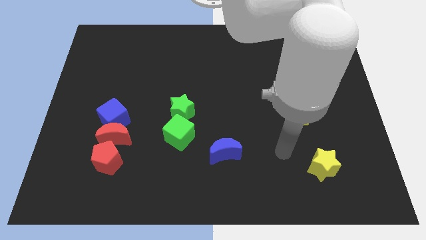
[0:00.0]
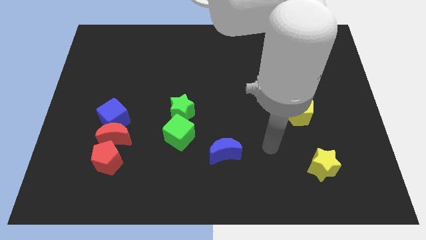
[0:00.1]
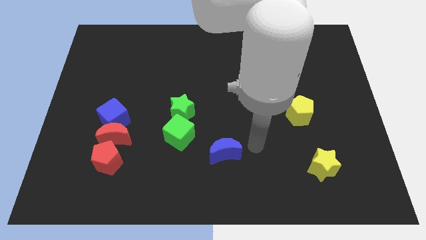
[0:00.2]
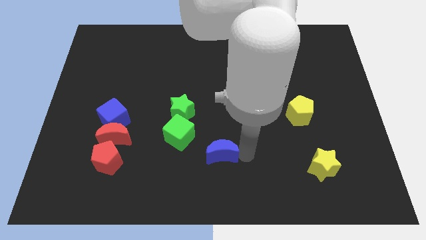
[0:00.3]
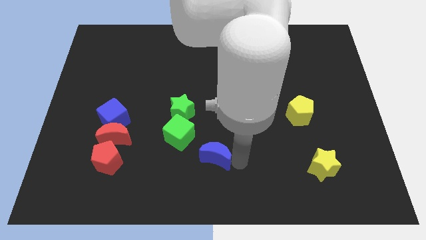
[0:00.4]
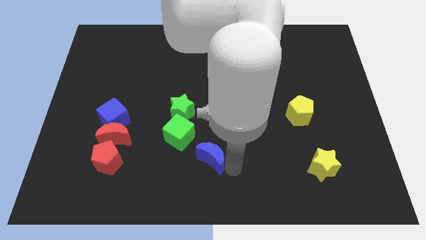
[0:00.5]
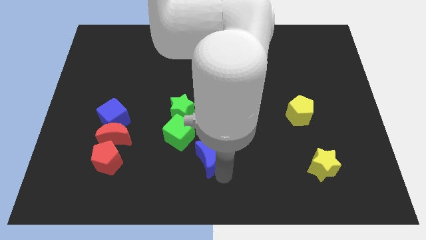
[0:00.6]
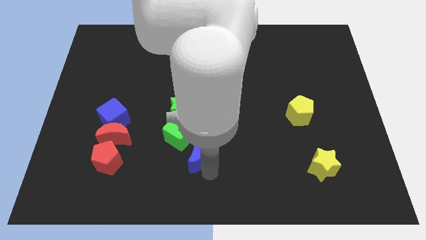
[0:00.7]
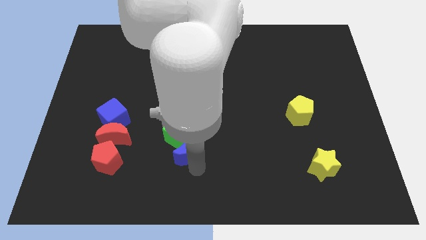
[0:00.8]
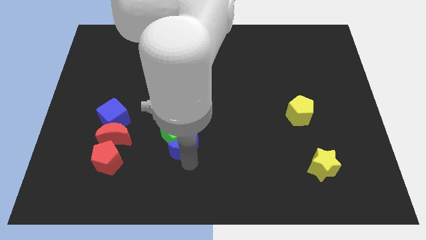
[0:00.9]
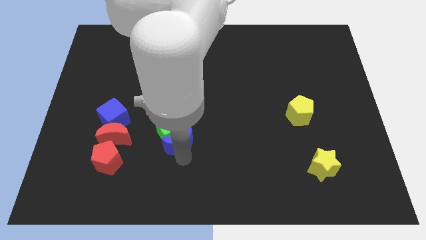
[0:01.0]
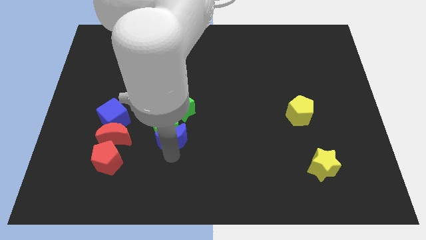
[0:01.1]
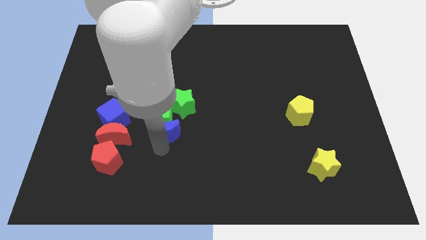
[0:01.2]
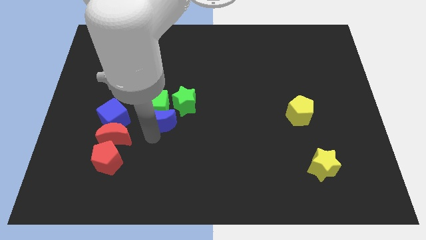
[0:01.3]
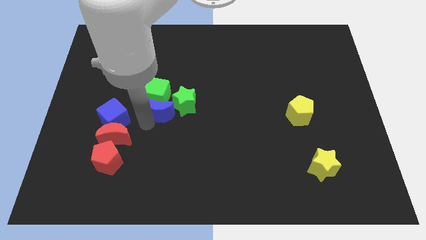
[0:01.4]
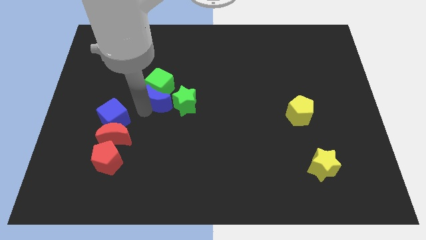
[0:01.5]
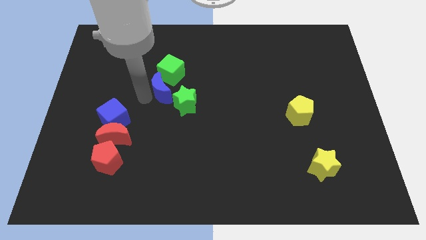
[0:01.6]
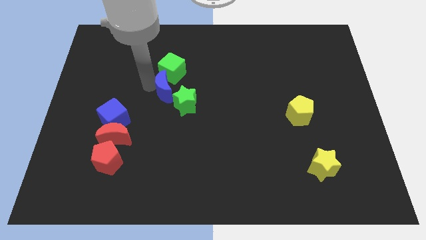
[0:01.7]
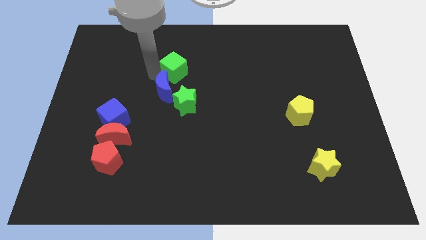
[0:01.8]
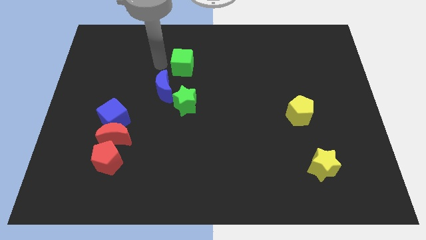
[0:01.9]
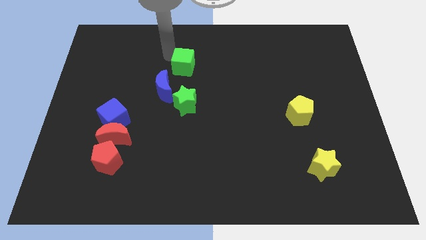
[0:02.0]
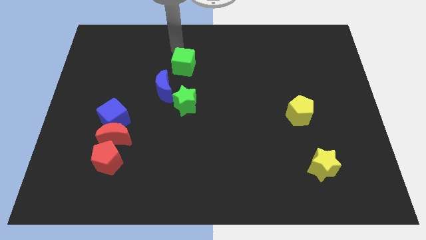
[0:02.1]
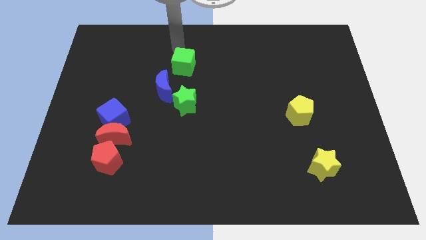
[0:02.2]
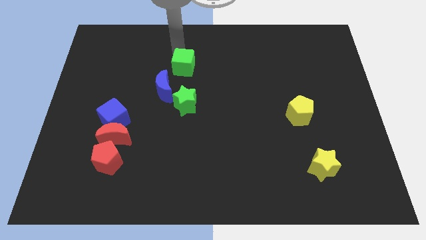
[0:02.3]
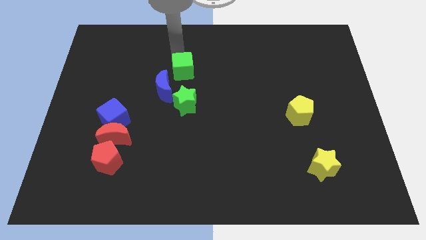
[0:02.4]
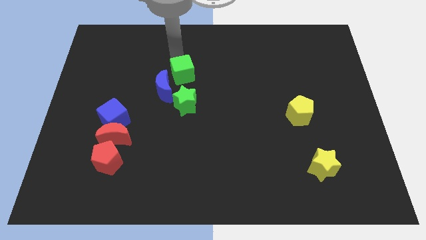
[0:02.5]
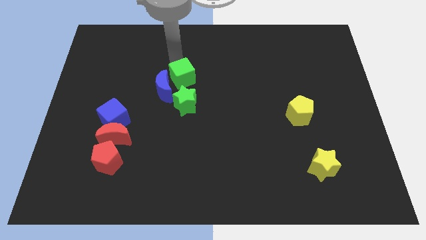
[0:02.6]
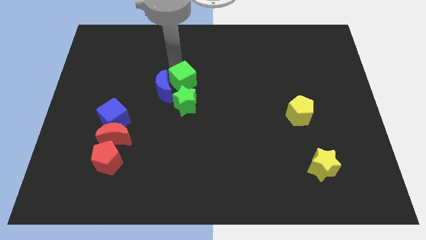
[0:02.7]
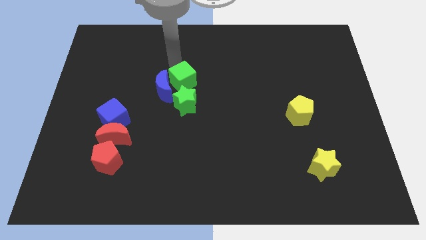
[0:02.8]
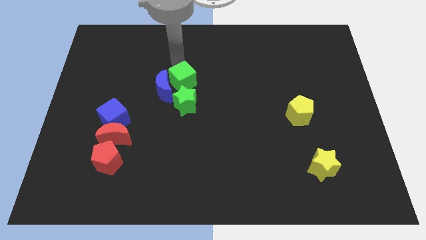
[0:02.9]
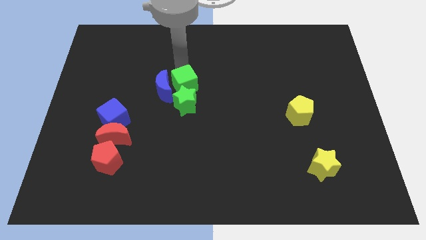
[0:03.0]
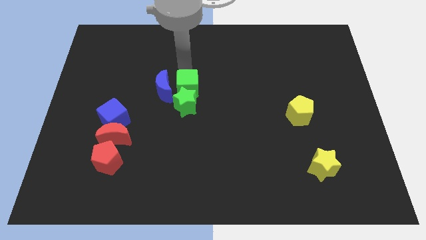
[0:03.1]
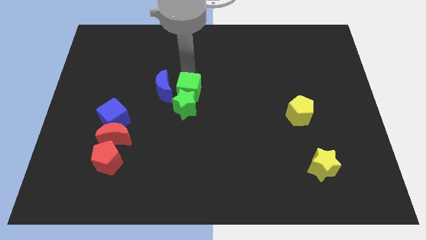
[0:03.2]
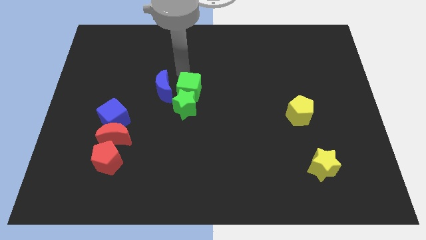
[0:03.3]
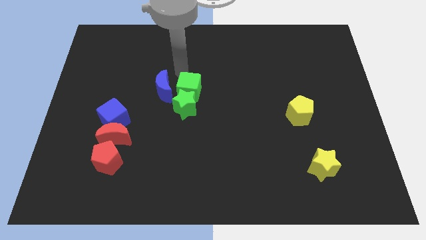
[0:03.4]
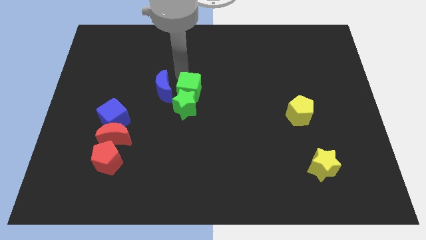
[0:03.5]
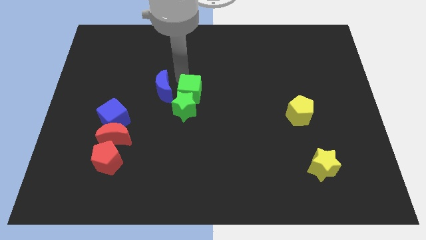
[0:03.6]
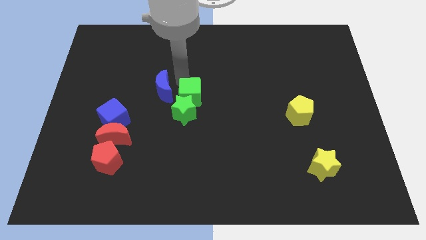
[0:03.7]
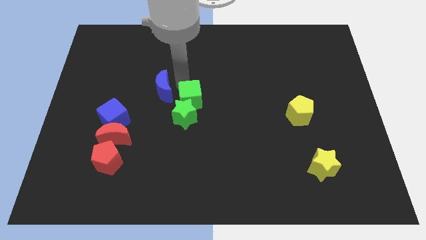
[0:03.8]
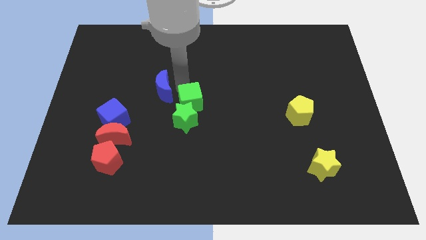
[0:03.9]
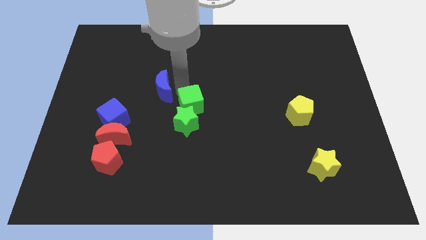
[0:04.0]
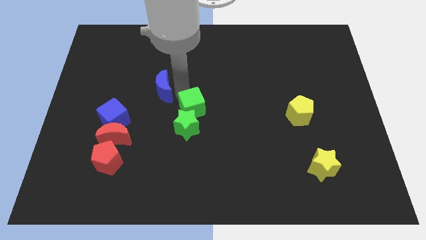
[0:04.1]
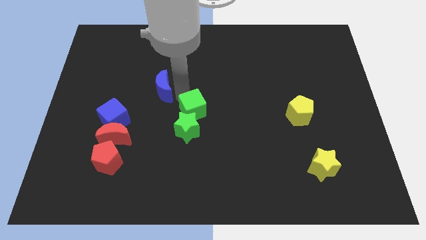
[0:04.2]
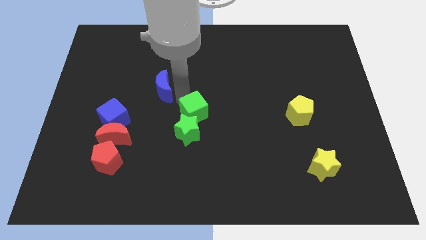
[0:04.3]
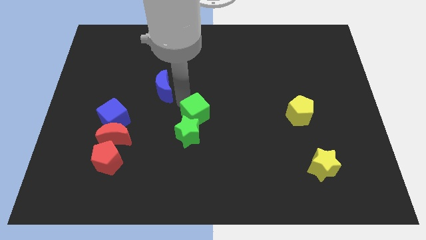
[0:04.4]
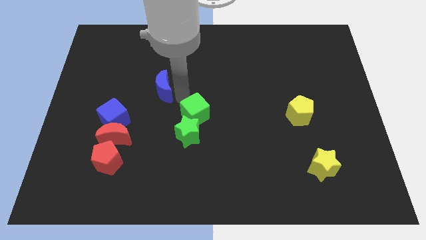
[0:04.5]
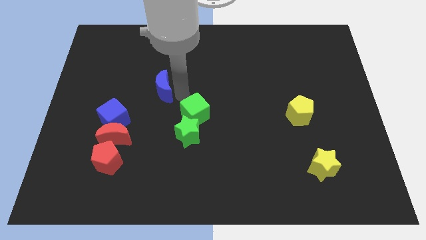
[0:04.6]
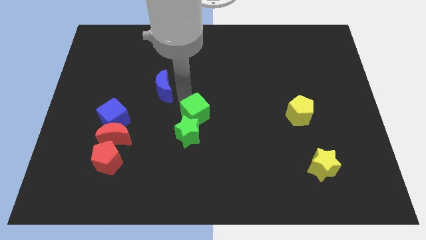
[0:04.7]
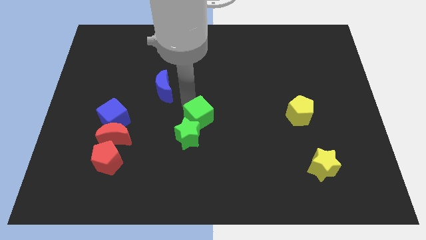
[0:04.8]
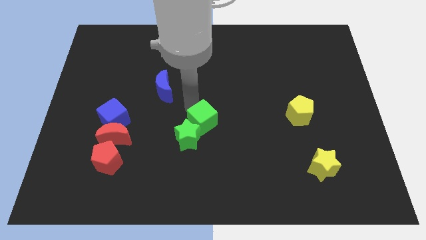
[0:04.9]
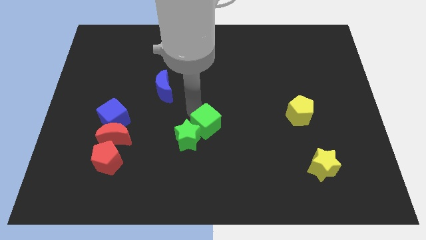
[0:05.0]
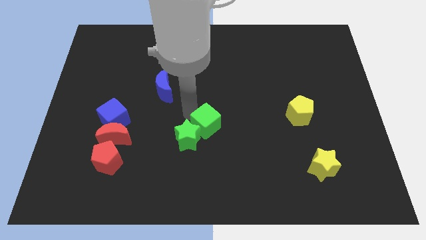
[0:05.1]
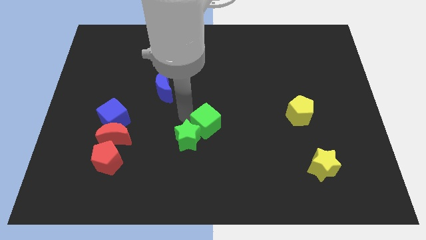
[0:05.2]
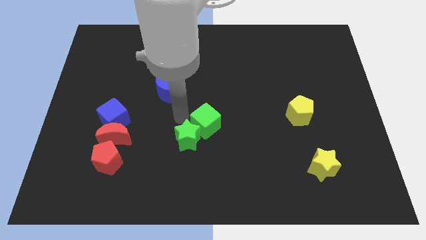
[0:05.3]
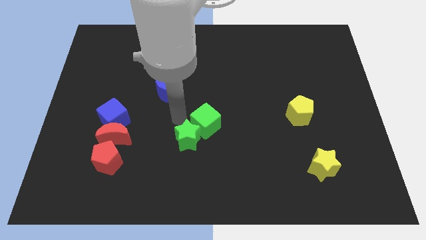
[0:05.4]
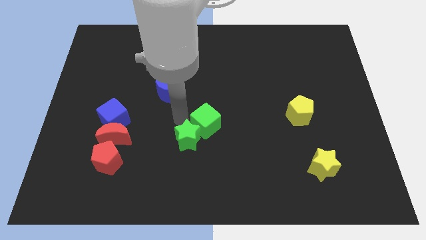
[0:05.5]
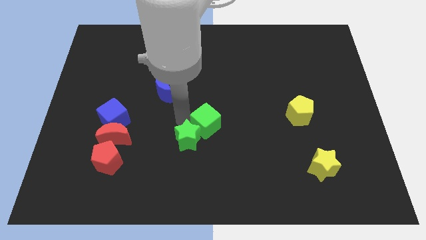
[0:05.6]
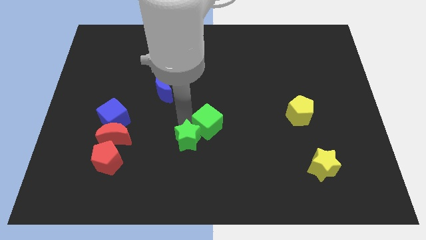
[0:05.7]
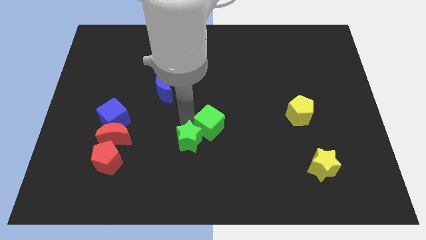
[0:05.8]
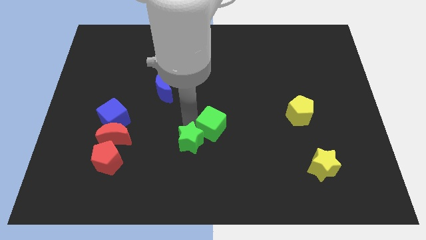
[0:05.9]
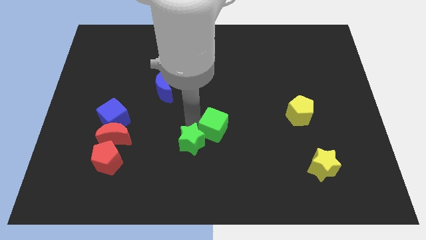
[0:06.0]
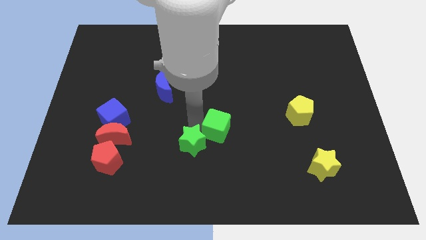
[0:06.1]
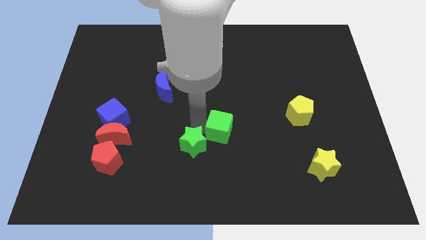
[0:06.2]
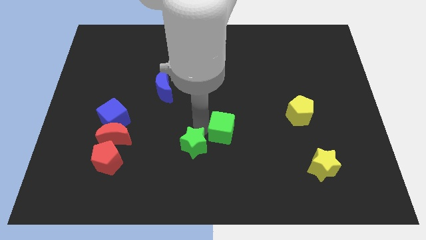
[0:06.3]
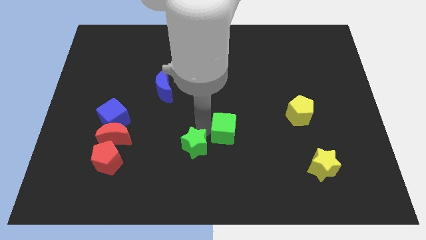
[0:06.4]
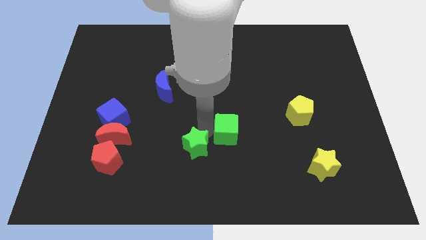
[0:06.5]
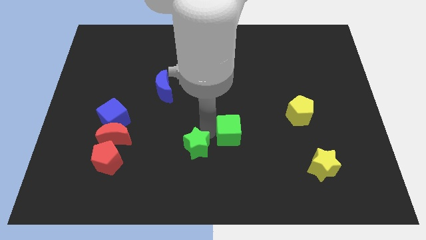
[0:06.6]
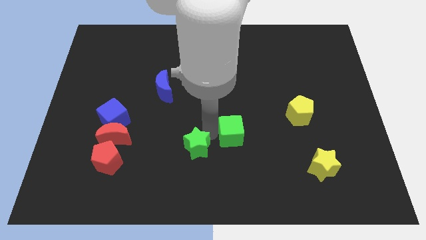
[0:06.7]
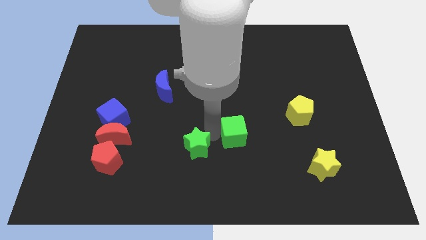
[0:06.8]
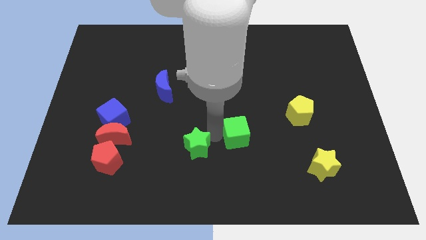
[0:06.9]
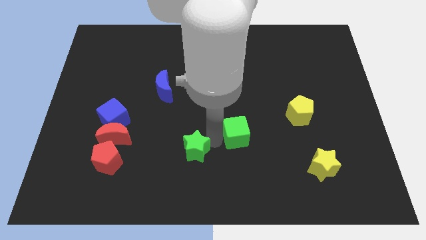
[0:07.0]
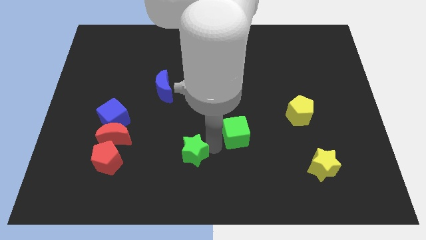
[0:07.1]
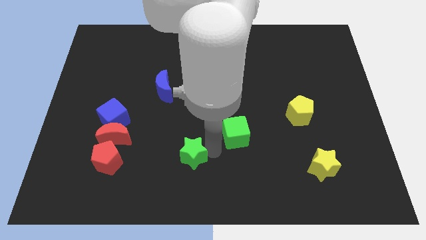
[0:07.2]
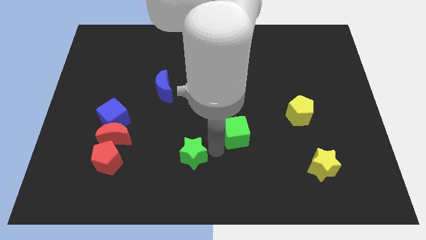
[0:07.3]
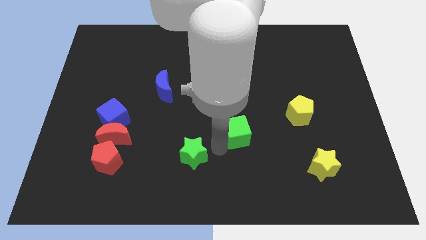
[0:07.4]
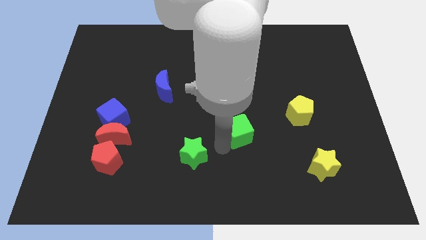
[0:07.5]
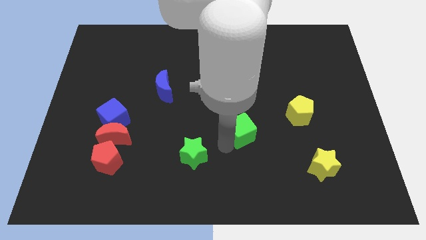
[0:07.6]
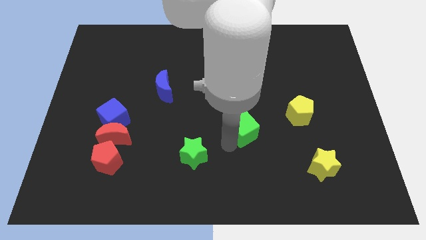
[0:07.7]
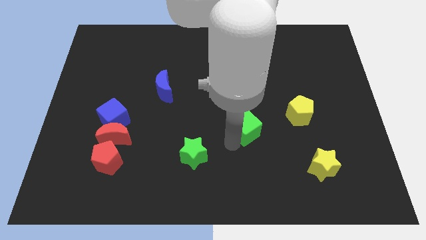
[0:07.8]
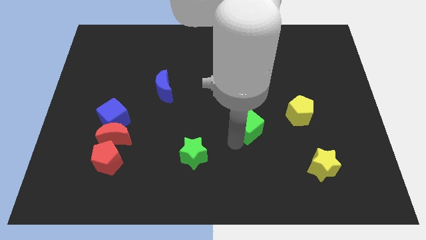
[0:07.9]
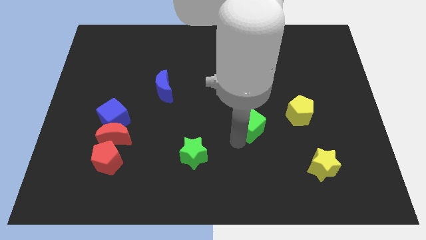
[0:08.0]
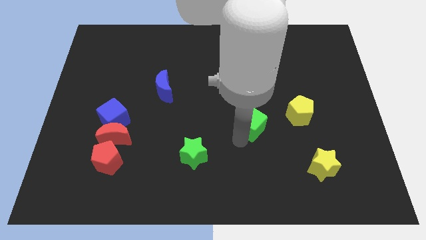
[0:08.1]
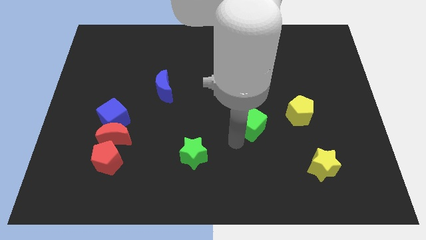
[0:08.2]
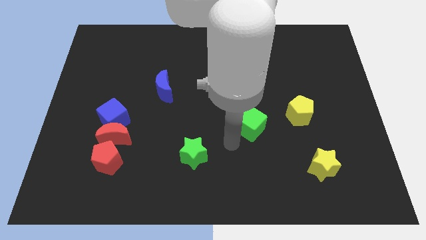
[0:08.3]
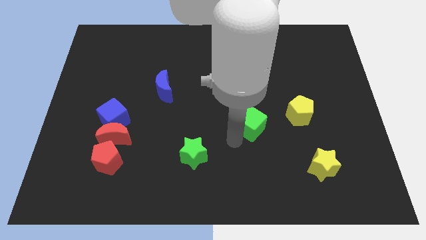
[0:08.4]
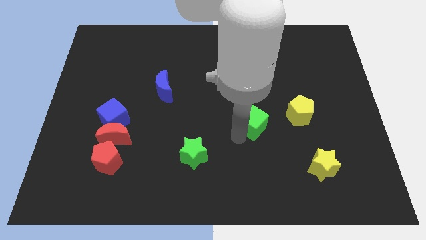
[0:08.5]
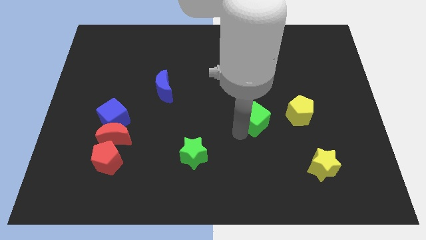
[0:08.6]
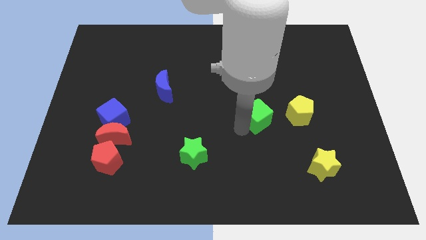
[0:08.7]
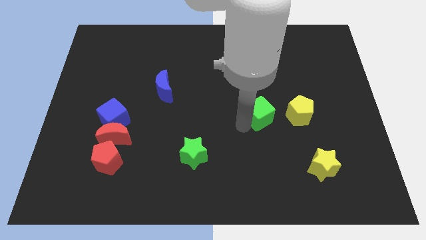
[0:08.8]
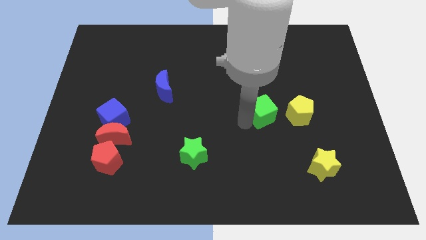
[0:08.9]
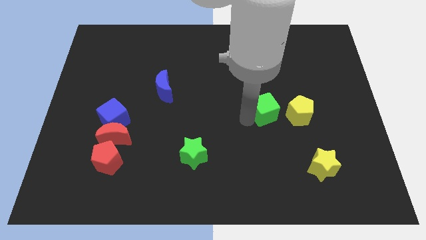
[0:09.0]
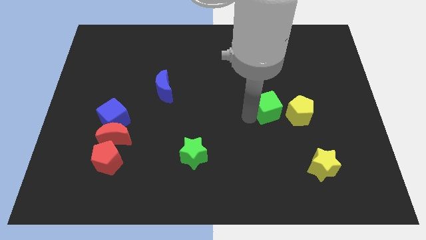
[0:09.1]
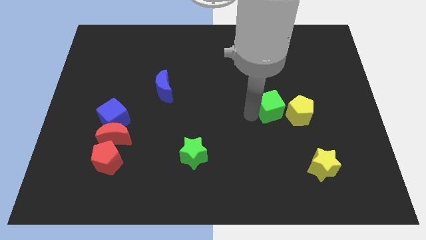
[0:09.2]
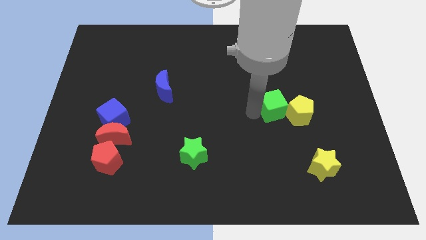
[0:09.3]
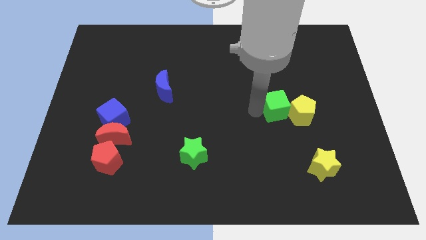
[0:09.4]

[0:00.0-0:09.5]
slide the green cube close to the yellow pentagon
